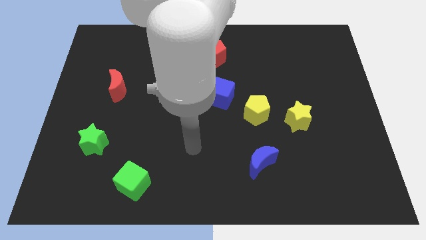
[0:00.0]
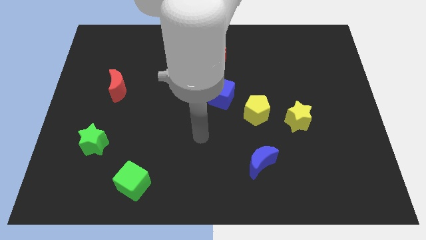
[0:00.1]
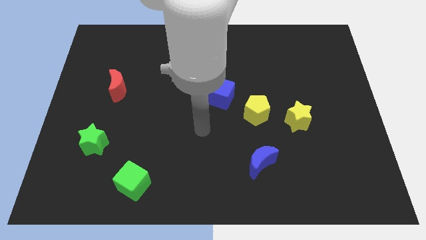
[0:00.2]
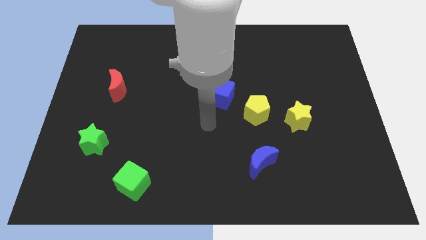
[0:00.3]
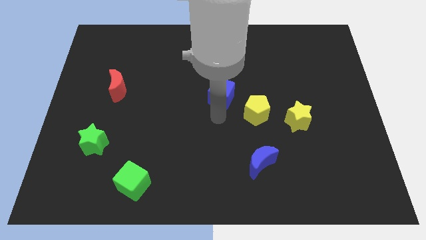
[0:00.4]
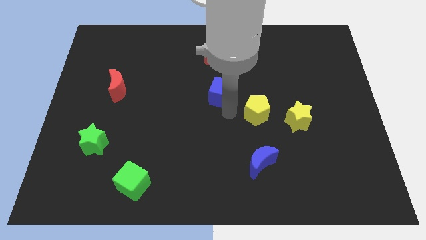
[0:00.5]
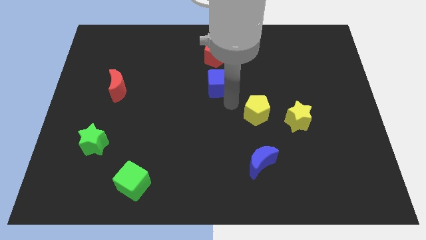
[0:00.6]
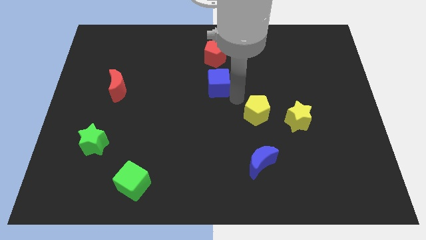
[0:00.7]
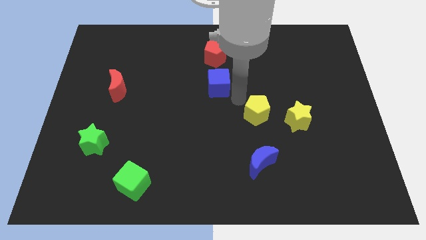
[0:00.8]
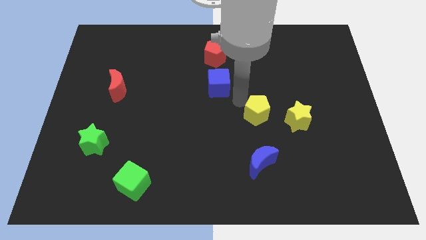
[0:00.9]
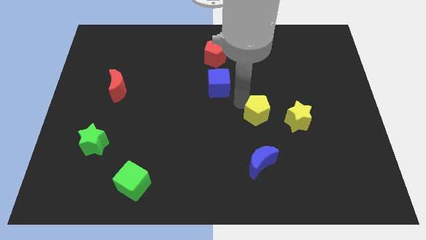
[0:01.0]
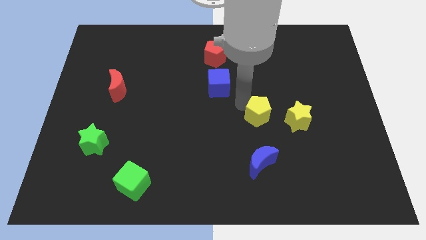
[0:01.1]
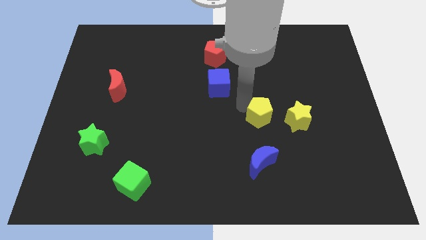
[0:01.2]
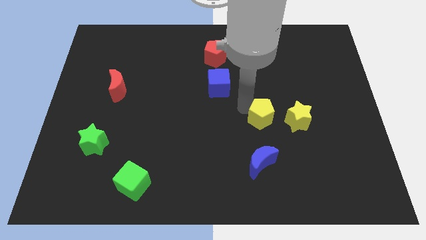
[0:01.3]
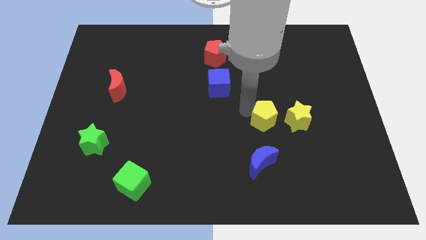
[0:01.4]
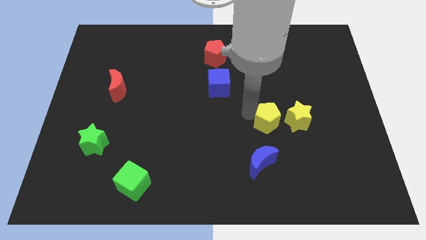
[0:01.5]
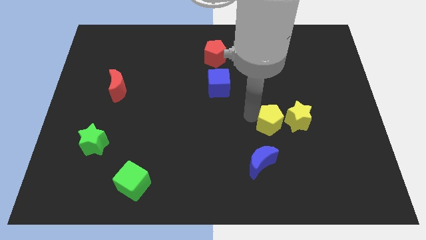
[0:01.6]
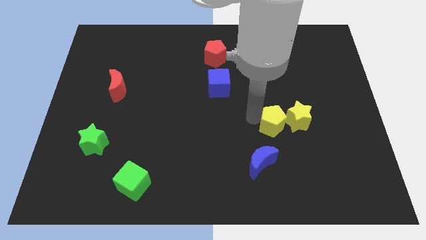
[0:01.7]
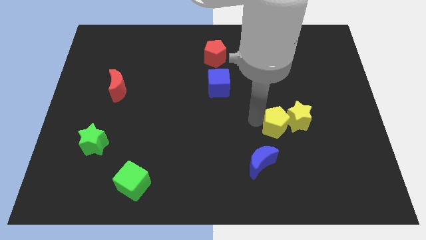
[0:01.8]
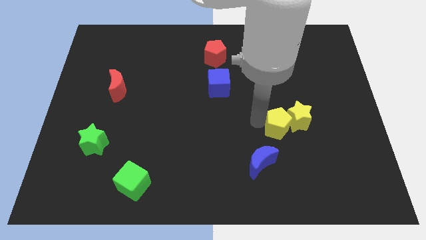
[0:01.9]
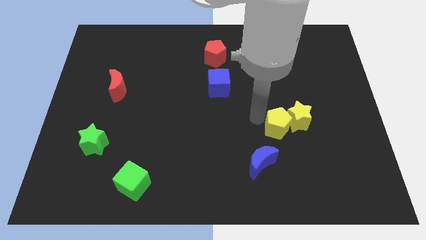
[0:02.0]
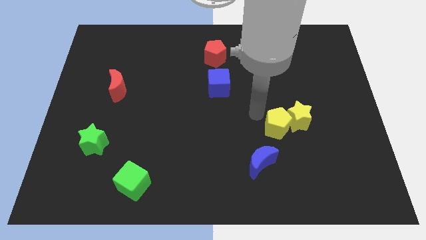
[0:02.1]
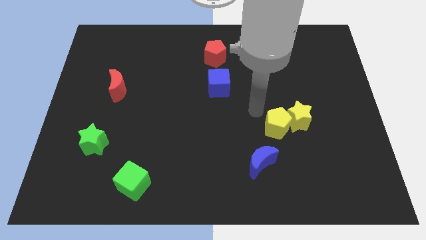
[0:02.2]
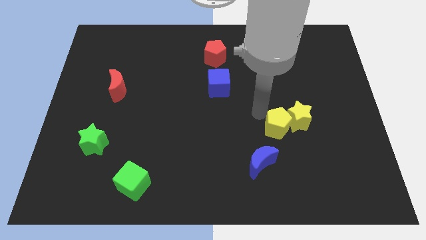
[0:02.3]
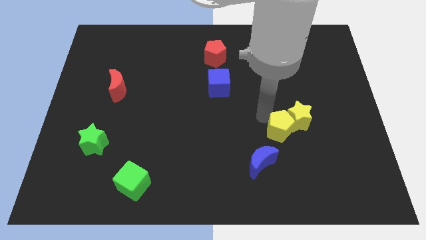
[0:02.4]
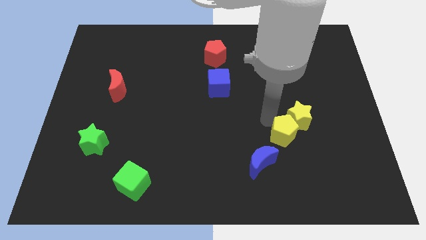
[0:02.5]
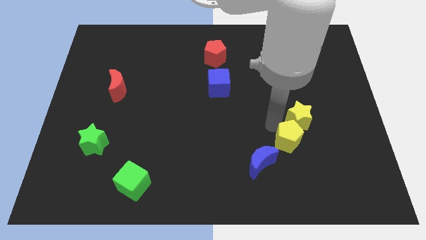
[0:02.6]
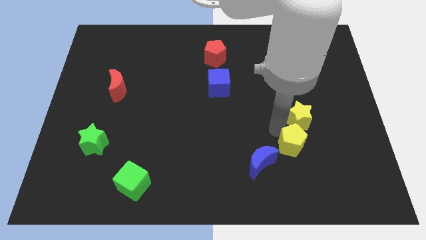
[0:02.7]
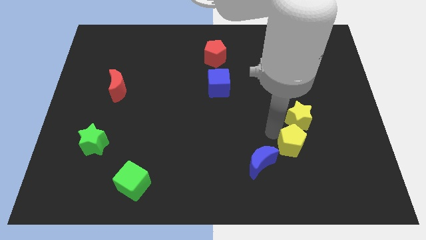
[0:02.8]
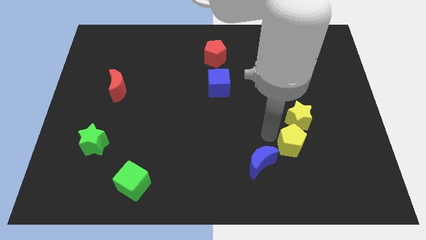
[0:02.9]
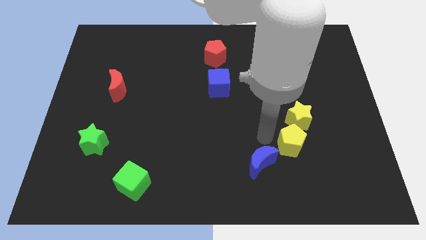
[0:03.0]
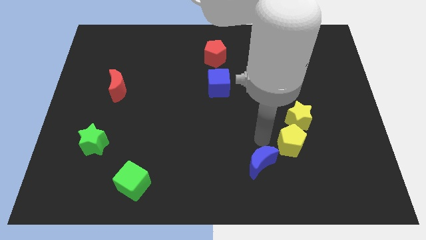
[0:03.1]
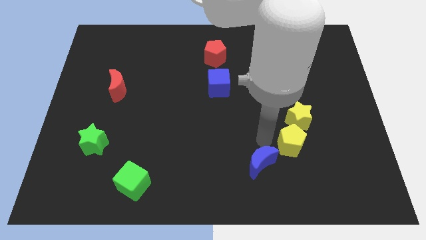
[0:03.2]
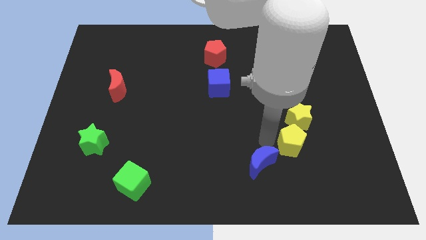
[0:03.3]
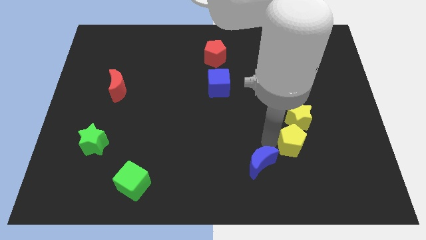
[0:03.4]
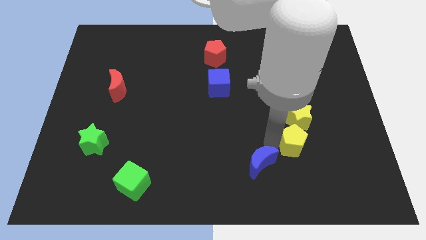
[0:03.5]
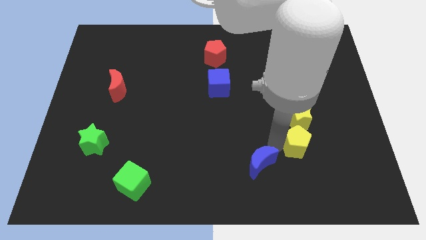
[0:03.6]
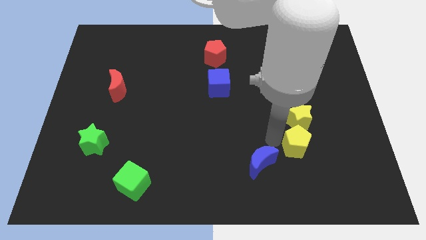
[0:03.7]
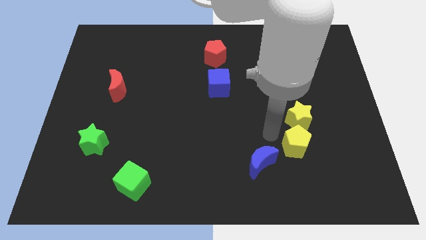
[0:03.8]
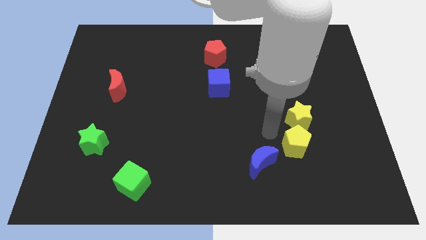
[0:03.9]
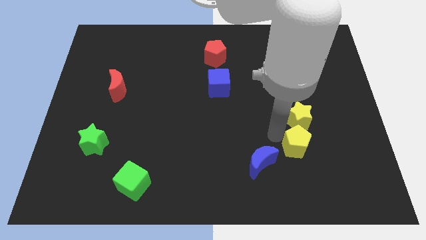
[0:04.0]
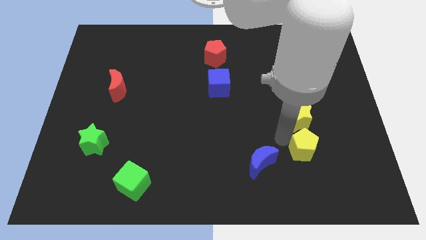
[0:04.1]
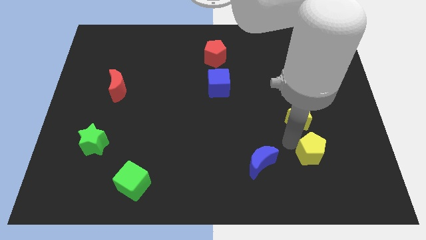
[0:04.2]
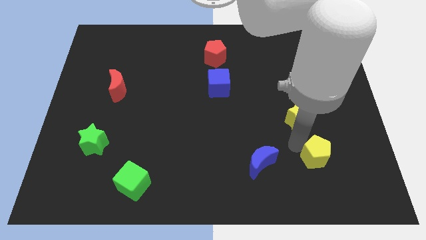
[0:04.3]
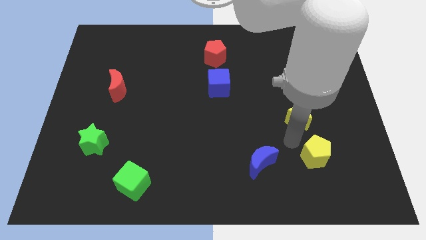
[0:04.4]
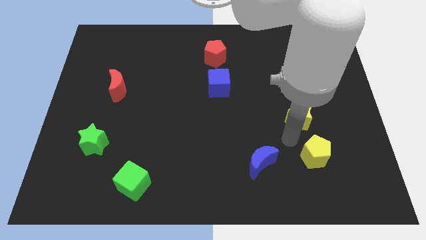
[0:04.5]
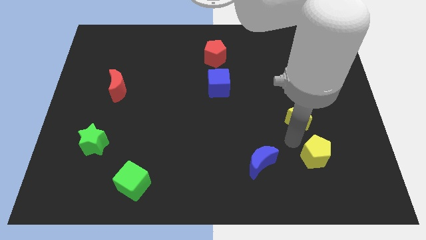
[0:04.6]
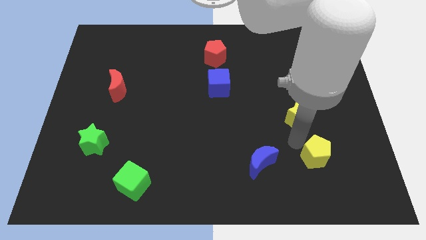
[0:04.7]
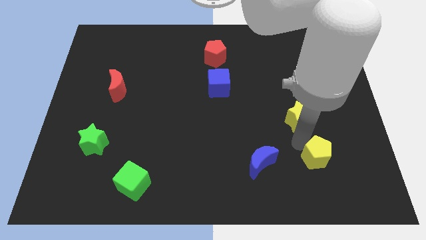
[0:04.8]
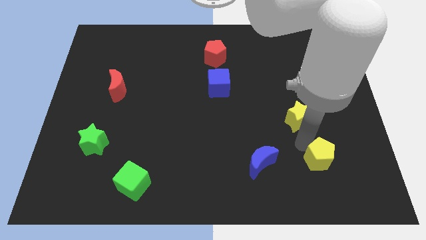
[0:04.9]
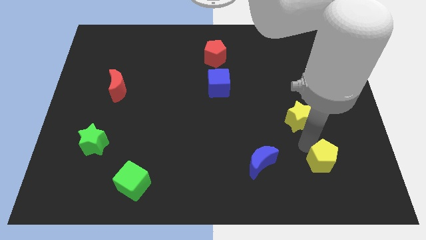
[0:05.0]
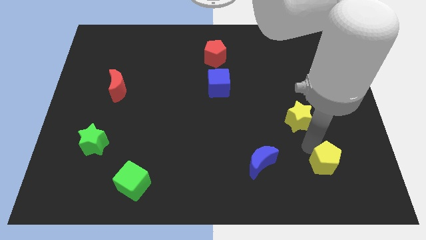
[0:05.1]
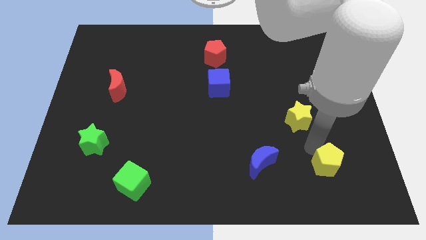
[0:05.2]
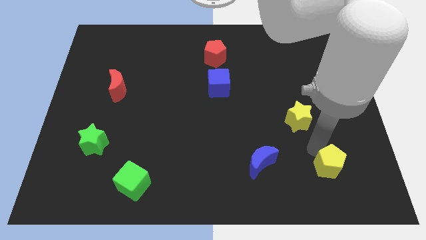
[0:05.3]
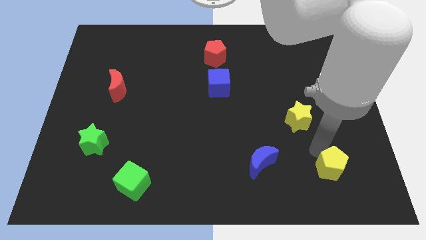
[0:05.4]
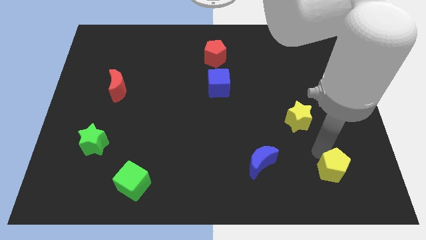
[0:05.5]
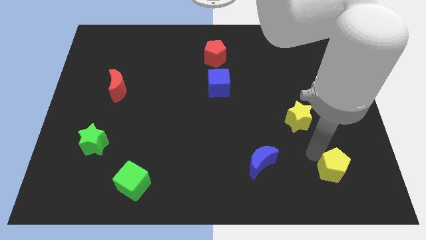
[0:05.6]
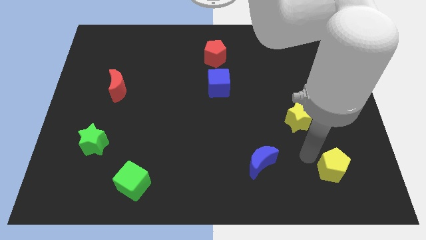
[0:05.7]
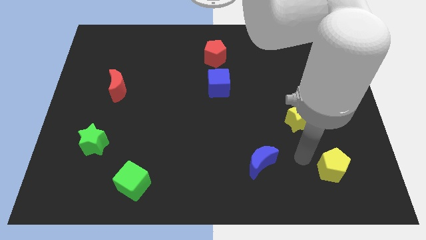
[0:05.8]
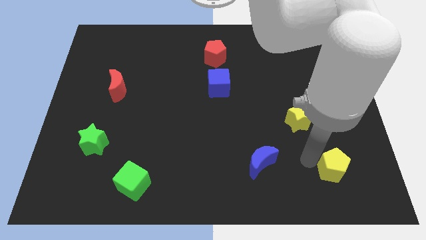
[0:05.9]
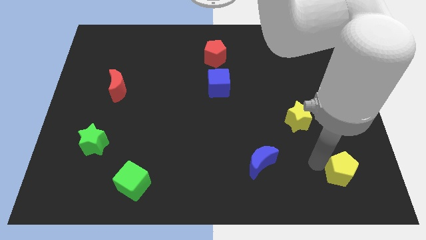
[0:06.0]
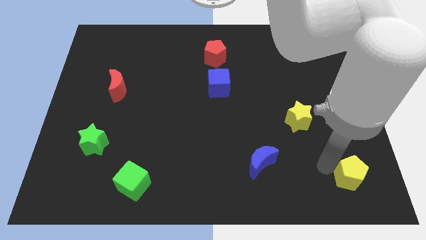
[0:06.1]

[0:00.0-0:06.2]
put the yellow pentagon to the lower right corner
